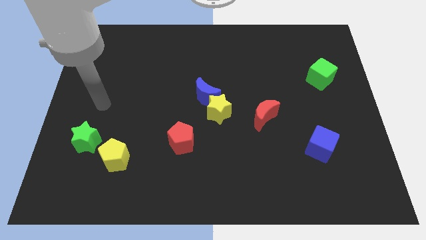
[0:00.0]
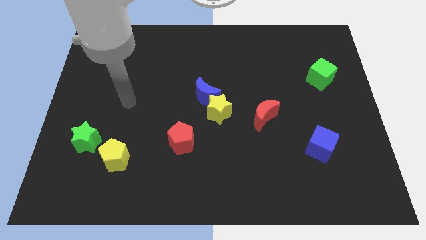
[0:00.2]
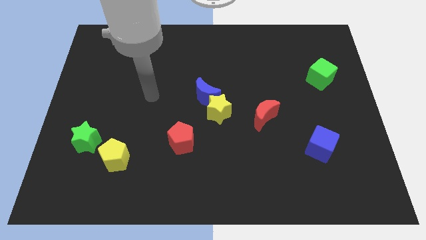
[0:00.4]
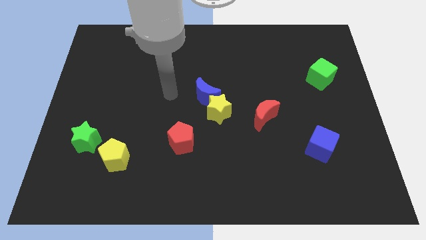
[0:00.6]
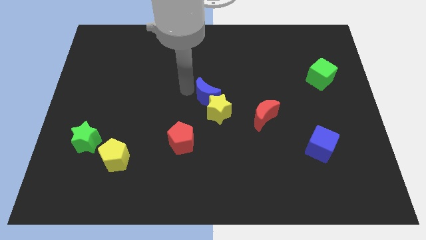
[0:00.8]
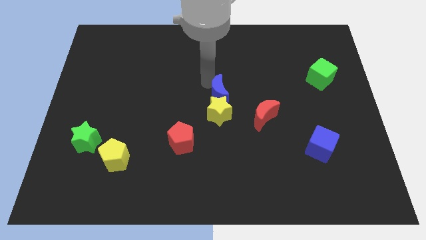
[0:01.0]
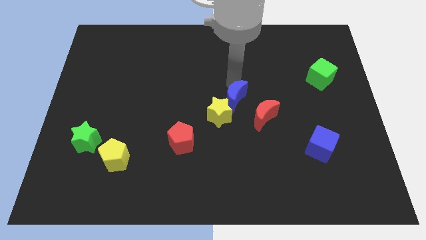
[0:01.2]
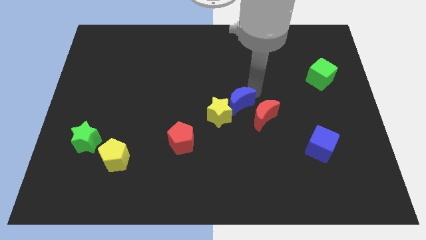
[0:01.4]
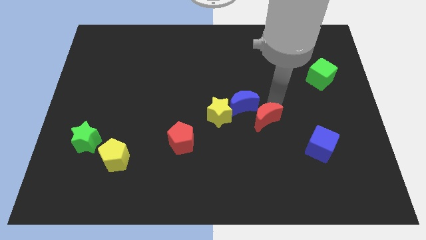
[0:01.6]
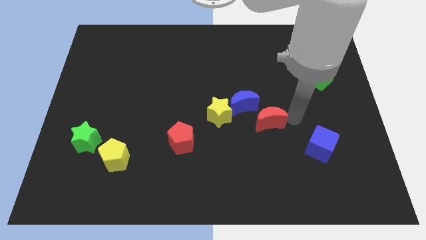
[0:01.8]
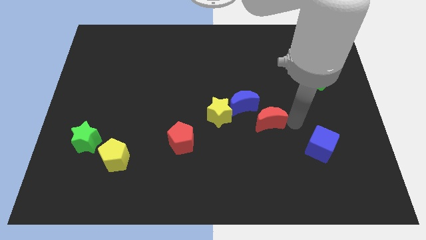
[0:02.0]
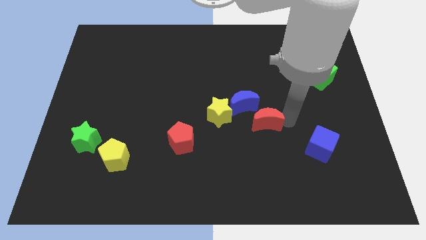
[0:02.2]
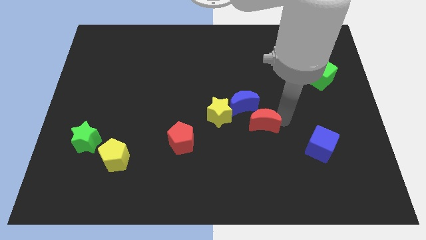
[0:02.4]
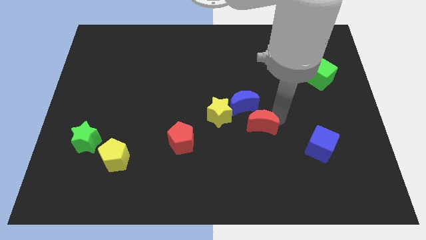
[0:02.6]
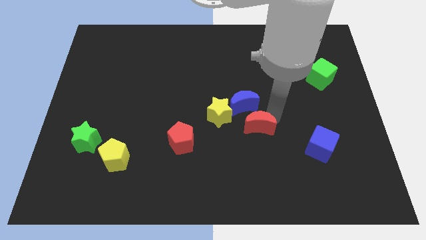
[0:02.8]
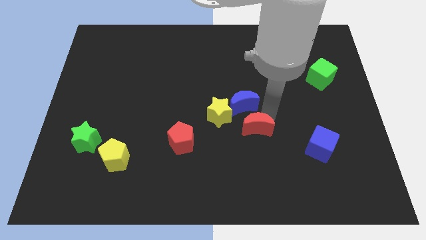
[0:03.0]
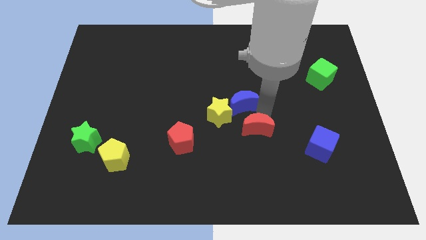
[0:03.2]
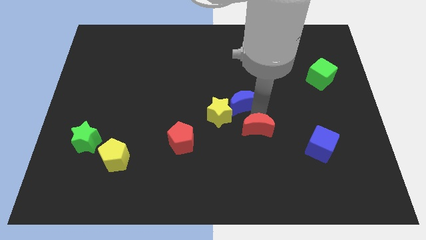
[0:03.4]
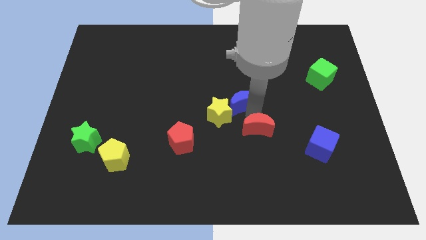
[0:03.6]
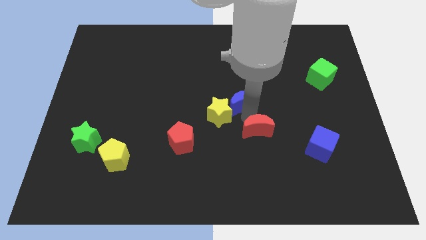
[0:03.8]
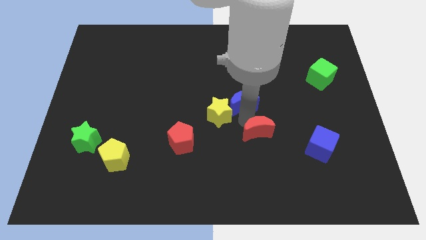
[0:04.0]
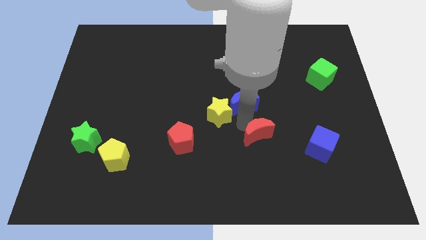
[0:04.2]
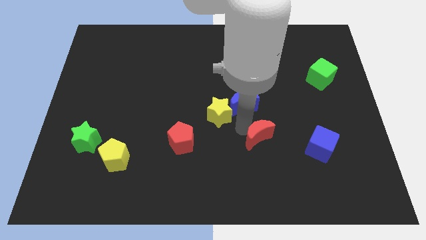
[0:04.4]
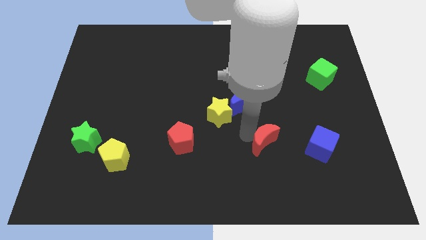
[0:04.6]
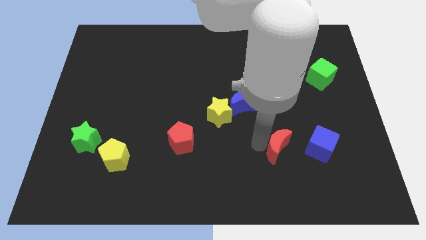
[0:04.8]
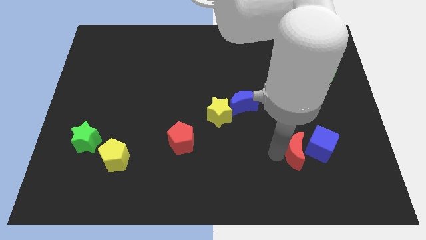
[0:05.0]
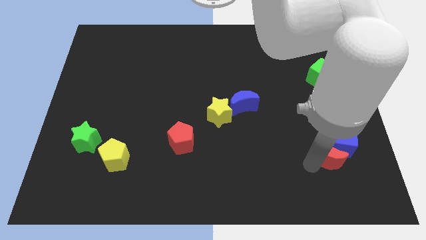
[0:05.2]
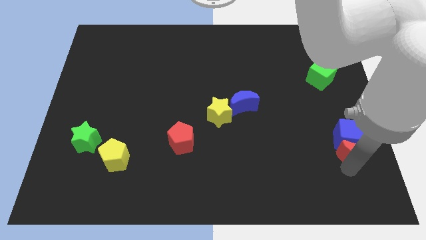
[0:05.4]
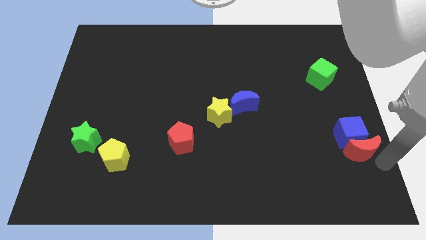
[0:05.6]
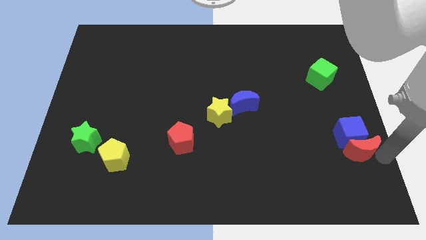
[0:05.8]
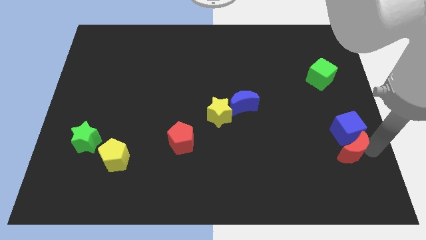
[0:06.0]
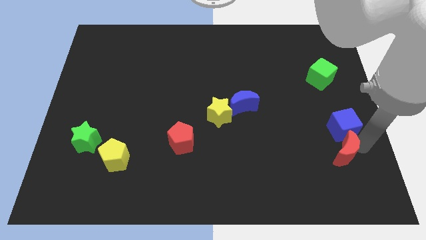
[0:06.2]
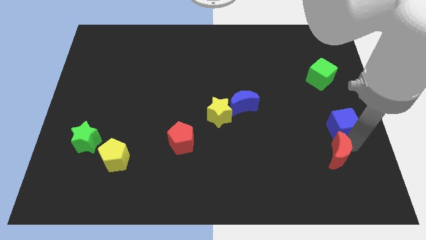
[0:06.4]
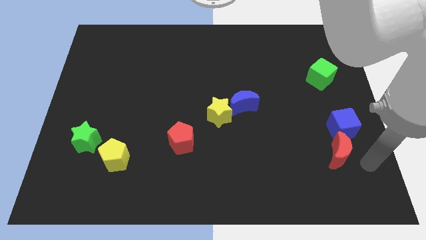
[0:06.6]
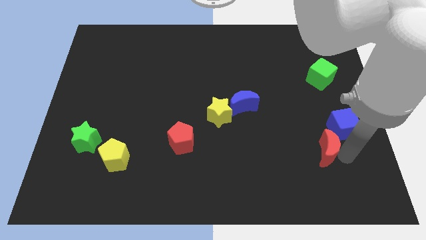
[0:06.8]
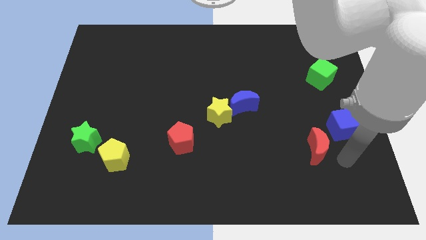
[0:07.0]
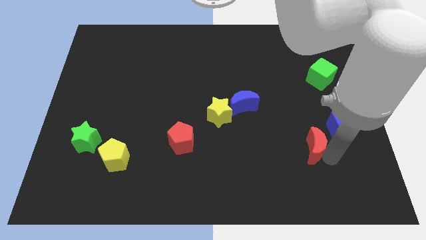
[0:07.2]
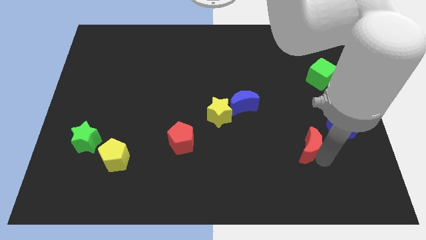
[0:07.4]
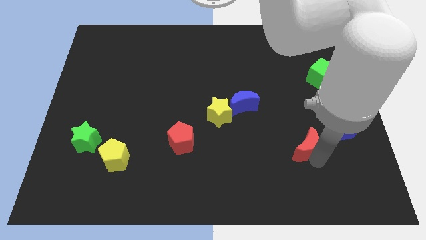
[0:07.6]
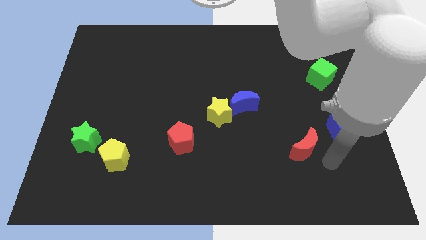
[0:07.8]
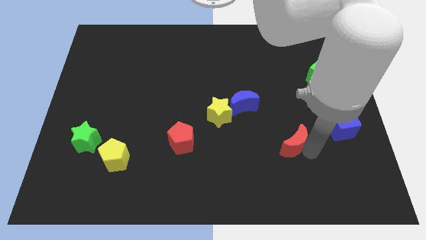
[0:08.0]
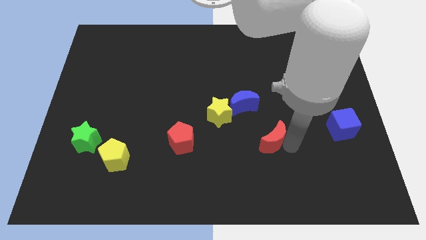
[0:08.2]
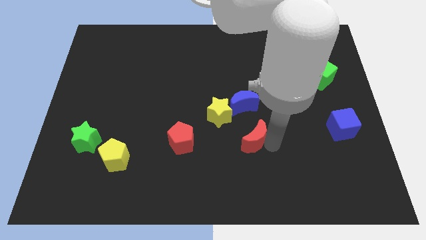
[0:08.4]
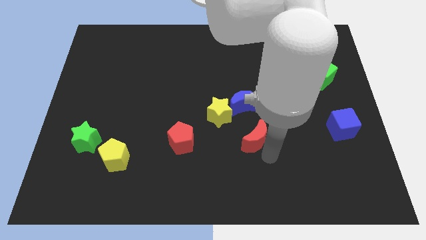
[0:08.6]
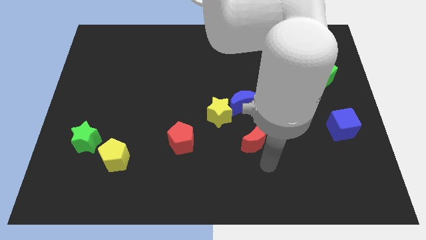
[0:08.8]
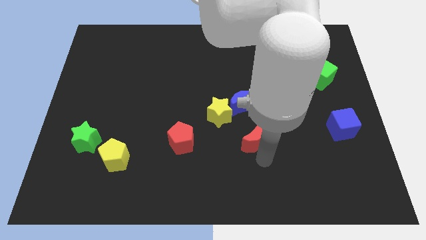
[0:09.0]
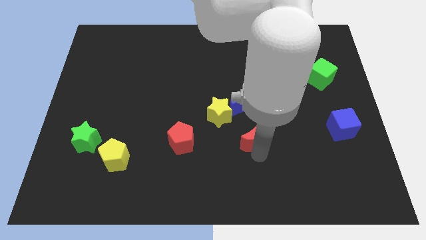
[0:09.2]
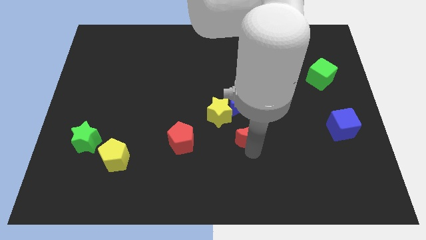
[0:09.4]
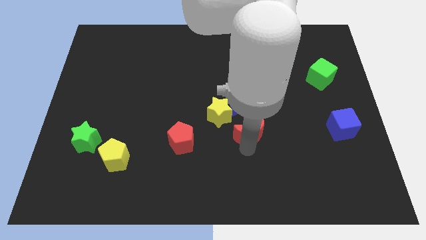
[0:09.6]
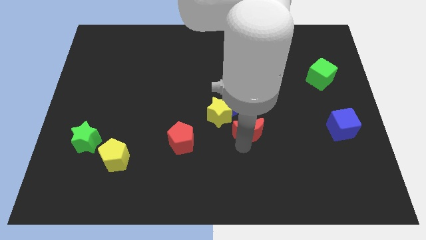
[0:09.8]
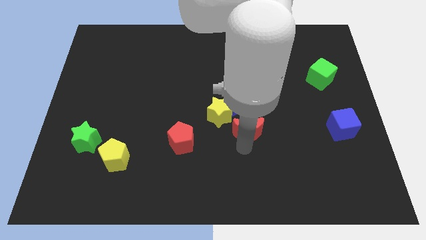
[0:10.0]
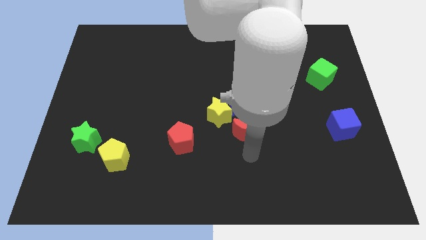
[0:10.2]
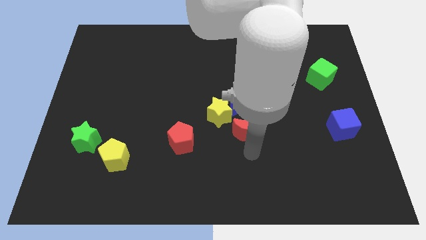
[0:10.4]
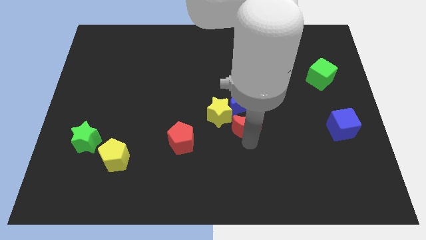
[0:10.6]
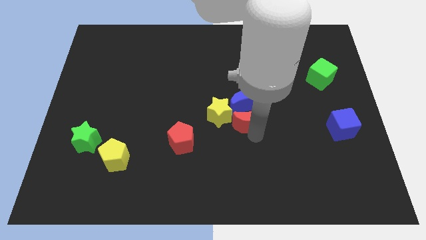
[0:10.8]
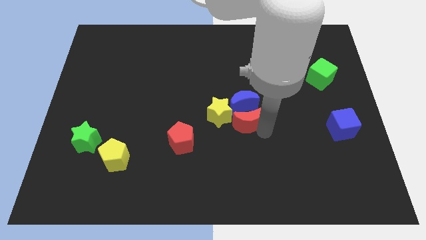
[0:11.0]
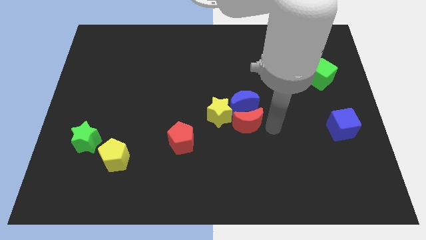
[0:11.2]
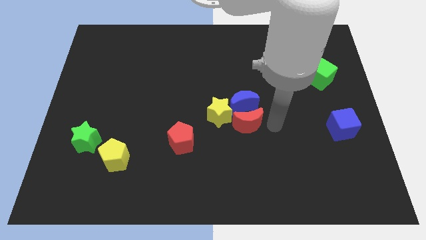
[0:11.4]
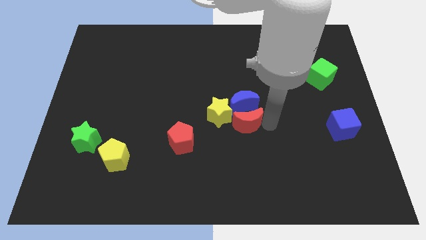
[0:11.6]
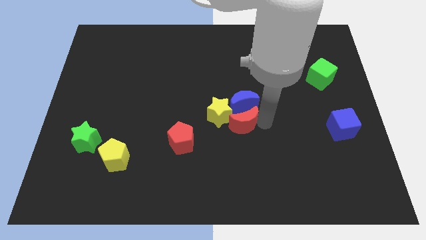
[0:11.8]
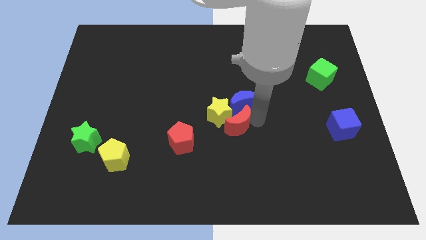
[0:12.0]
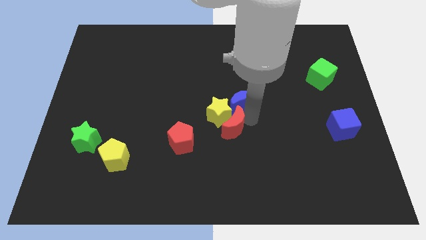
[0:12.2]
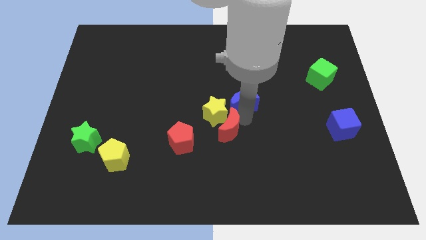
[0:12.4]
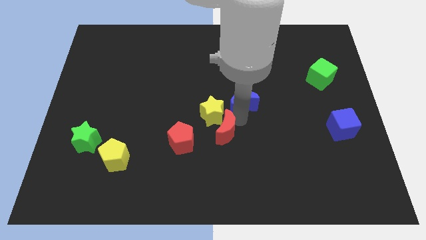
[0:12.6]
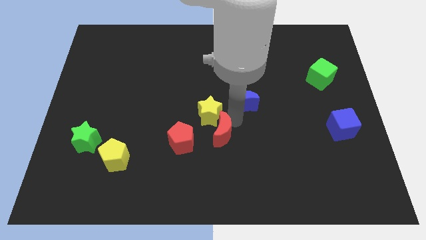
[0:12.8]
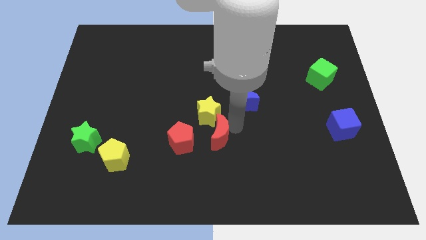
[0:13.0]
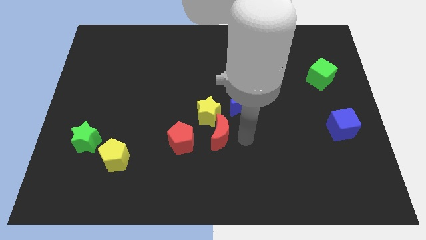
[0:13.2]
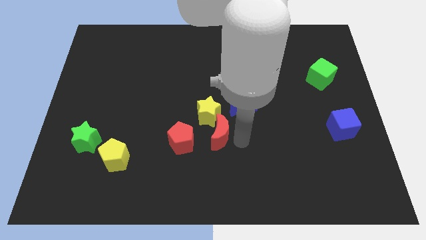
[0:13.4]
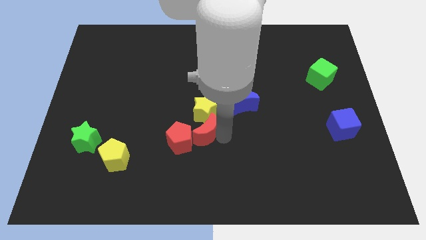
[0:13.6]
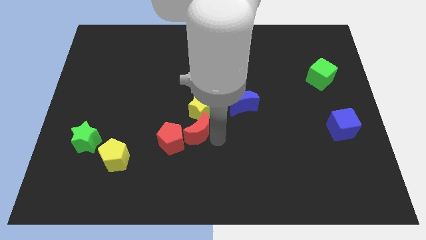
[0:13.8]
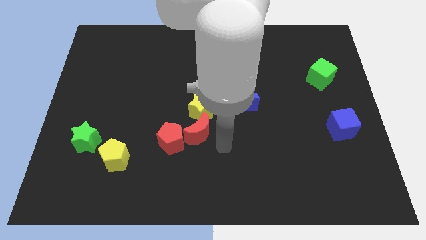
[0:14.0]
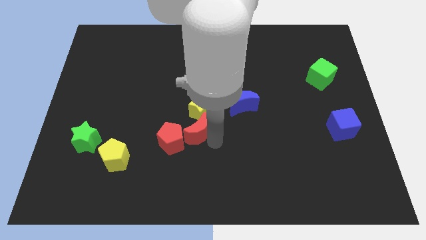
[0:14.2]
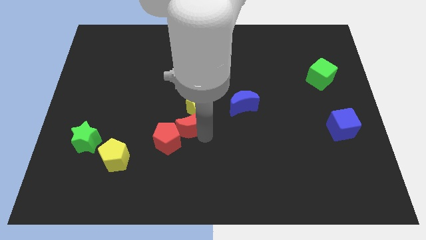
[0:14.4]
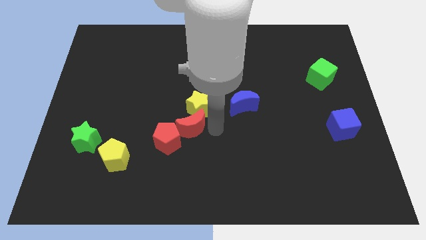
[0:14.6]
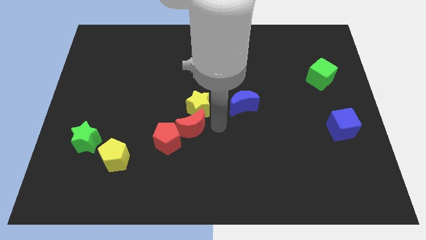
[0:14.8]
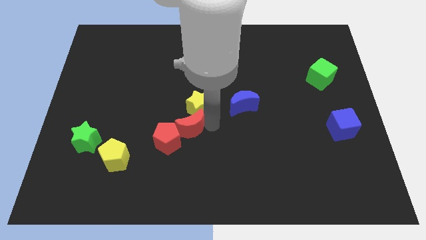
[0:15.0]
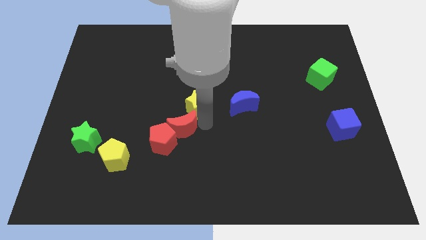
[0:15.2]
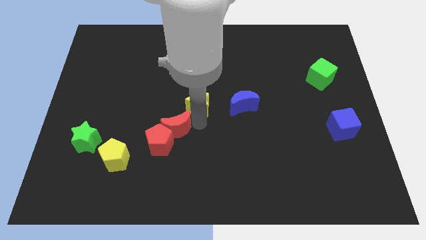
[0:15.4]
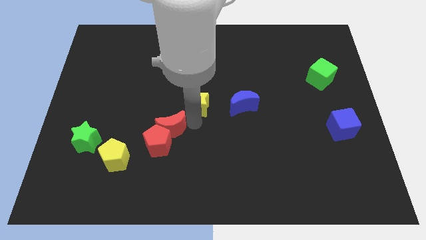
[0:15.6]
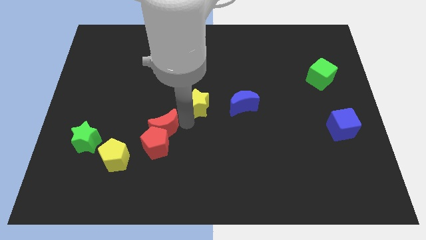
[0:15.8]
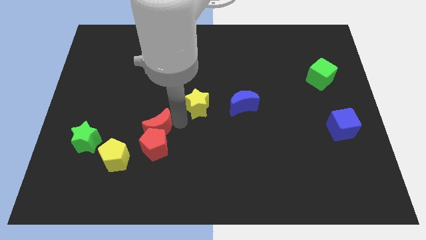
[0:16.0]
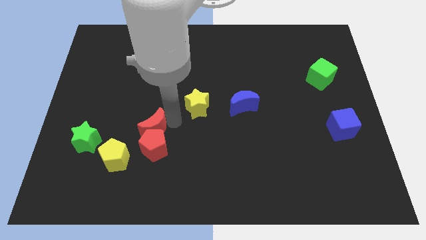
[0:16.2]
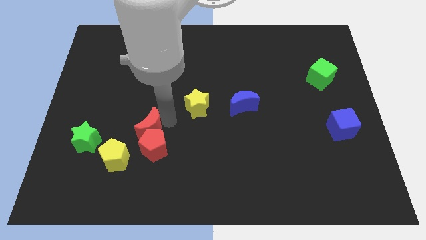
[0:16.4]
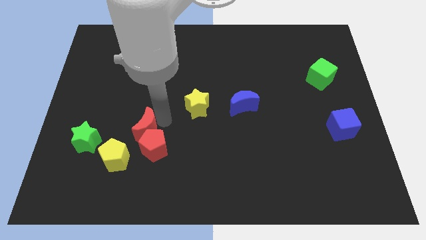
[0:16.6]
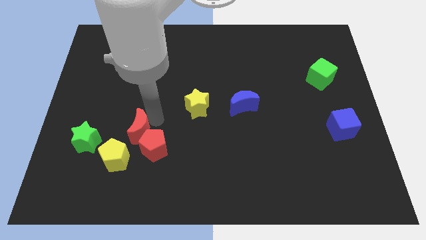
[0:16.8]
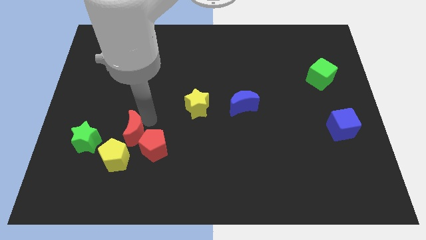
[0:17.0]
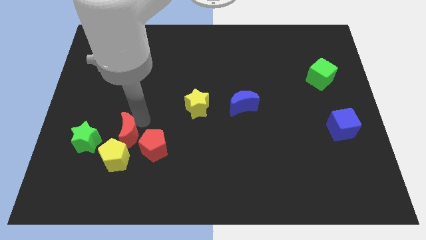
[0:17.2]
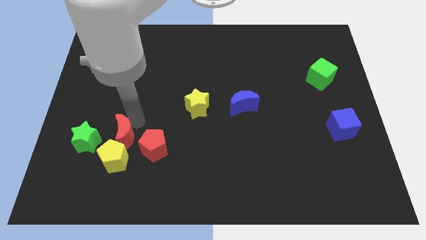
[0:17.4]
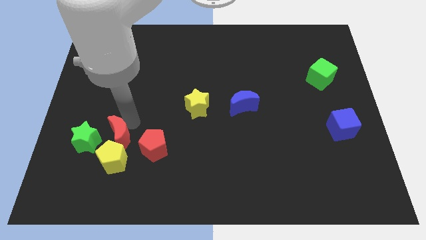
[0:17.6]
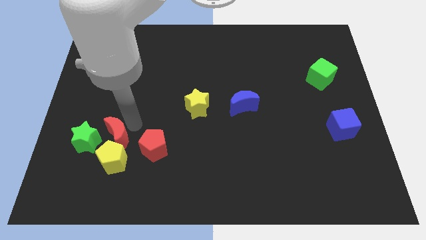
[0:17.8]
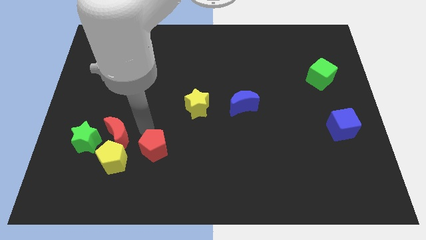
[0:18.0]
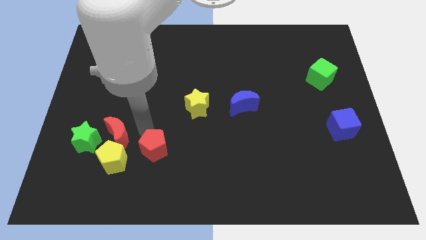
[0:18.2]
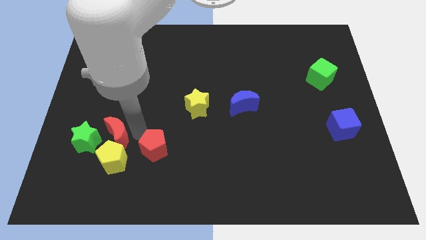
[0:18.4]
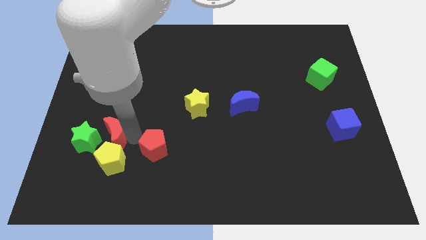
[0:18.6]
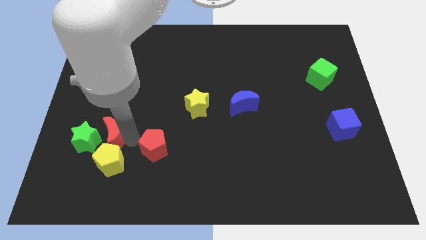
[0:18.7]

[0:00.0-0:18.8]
put the red moon next to the green star
